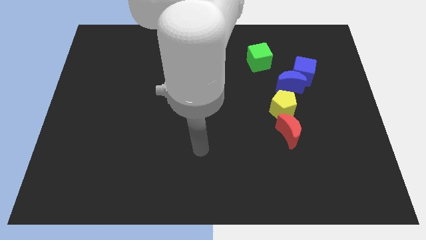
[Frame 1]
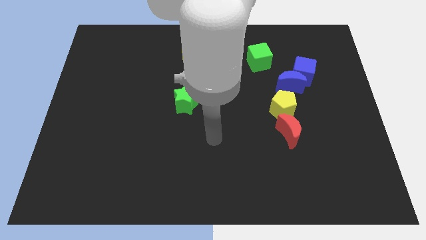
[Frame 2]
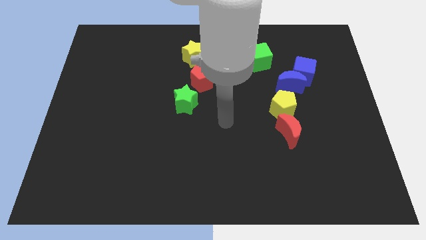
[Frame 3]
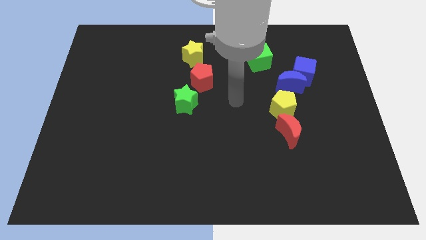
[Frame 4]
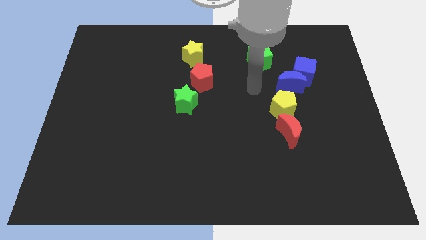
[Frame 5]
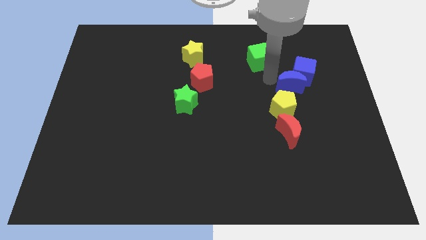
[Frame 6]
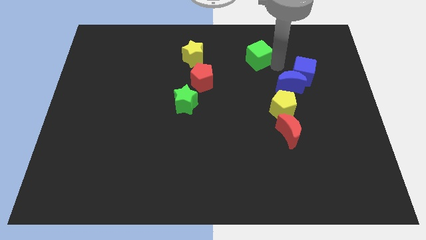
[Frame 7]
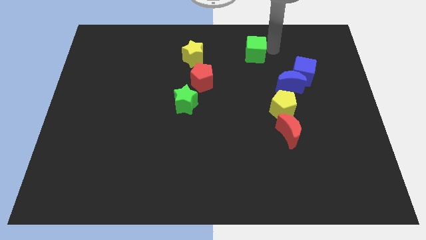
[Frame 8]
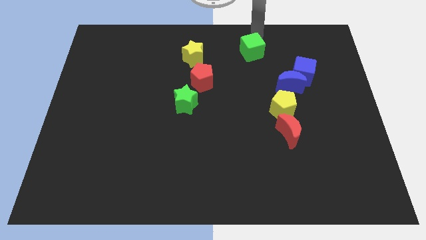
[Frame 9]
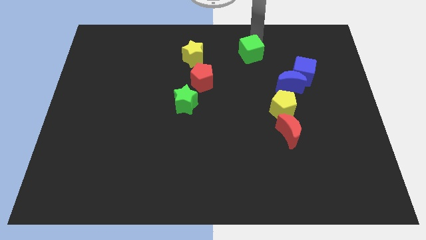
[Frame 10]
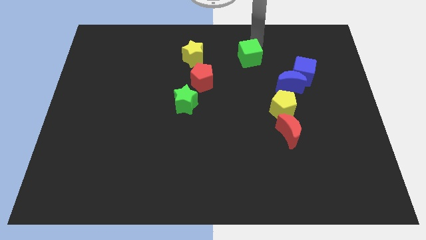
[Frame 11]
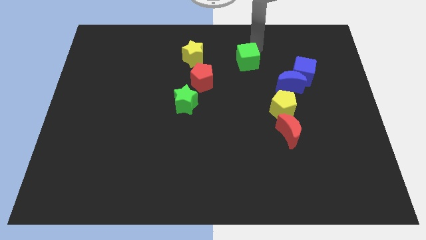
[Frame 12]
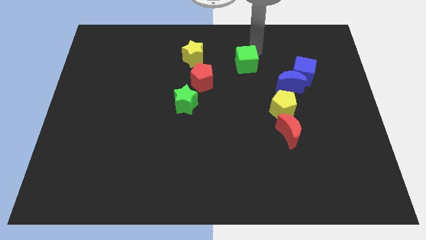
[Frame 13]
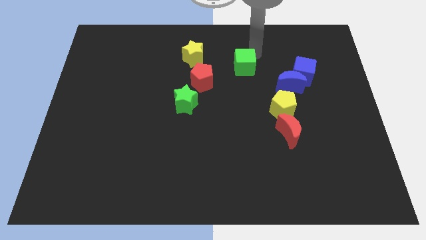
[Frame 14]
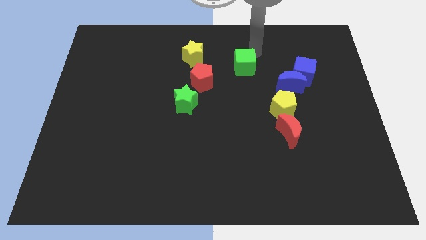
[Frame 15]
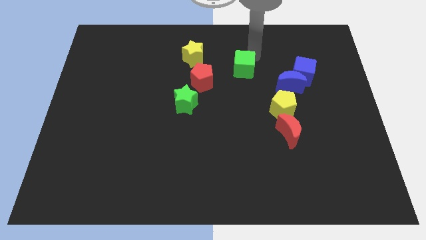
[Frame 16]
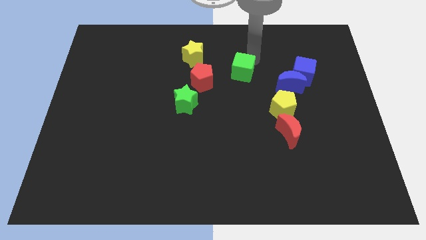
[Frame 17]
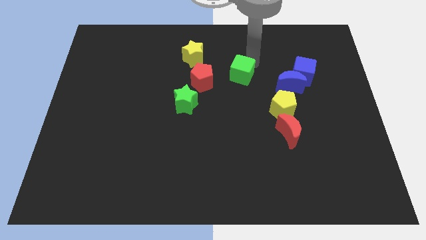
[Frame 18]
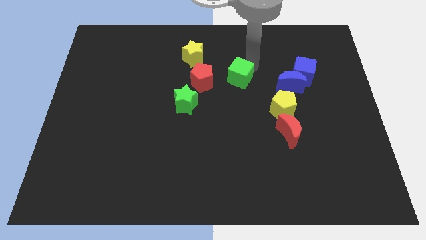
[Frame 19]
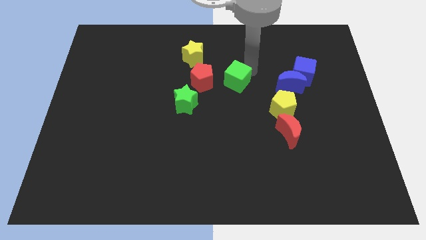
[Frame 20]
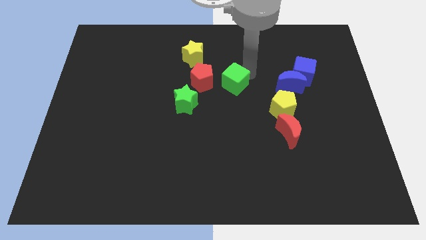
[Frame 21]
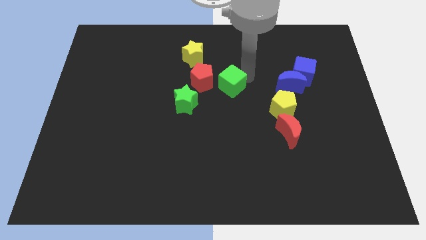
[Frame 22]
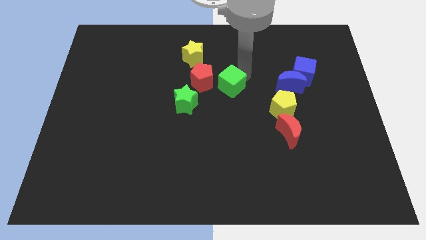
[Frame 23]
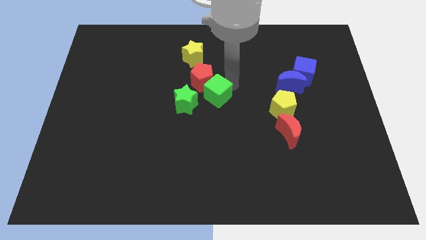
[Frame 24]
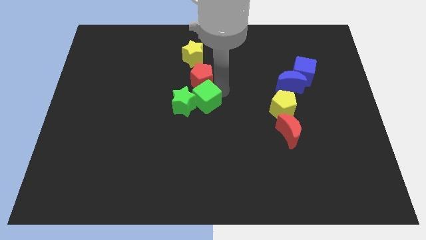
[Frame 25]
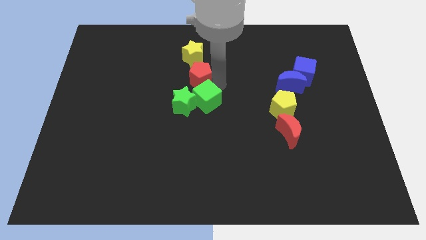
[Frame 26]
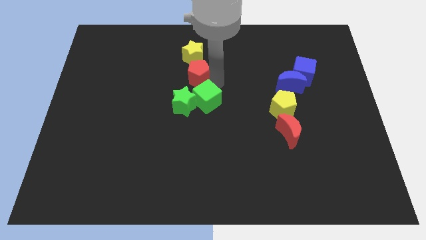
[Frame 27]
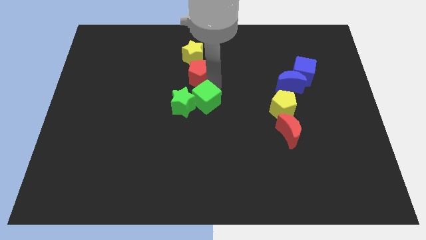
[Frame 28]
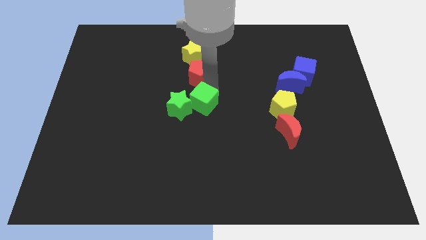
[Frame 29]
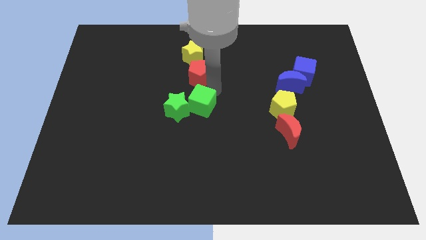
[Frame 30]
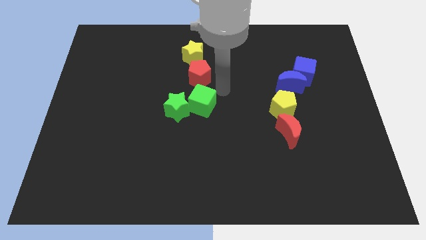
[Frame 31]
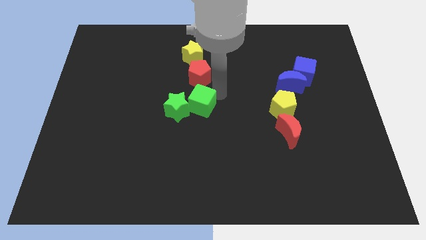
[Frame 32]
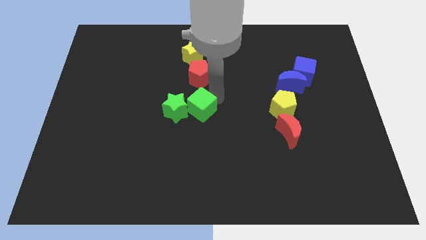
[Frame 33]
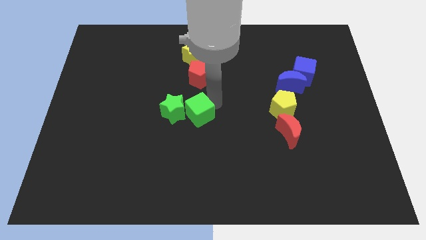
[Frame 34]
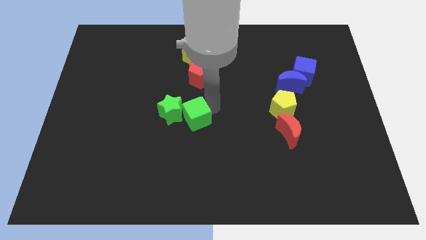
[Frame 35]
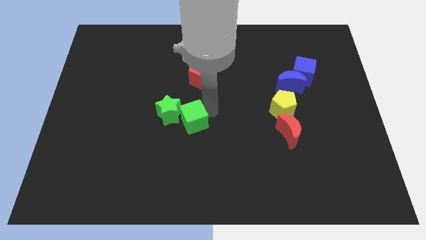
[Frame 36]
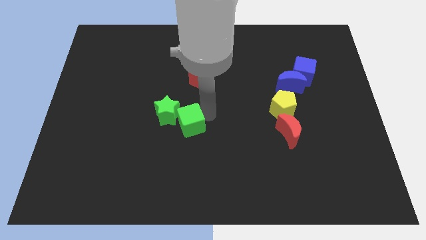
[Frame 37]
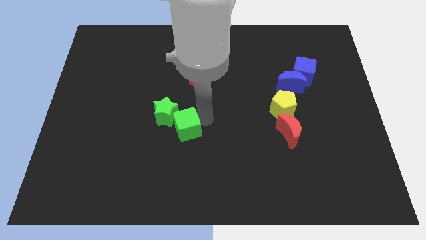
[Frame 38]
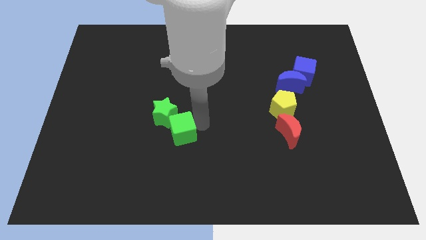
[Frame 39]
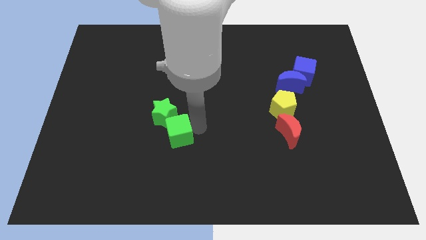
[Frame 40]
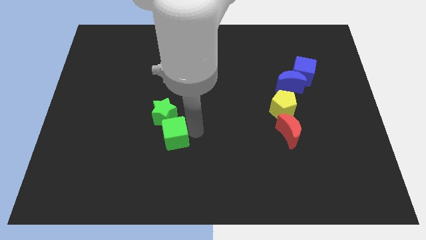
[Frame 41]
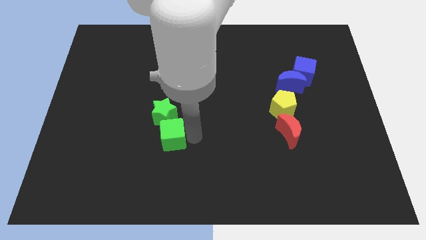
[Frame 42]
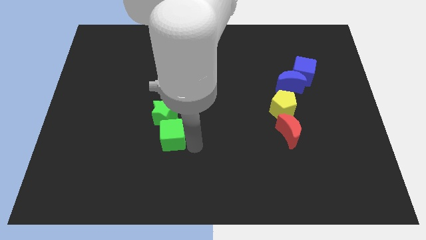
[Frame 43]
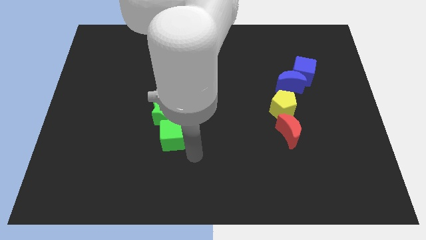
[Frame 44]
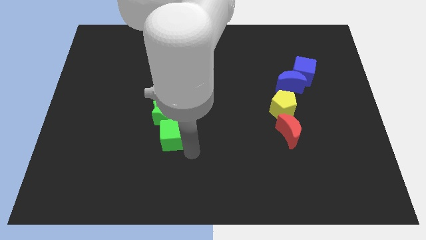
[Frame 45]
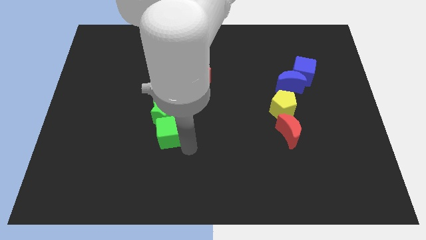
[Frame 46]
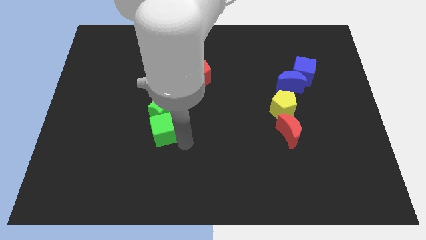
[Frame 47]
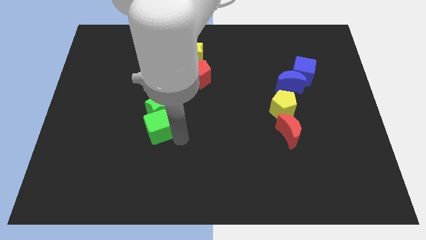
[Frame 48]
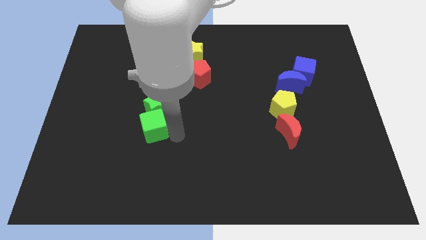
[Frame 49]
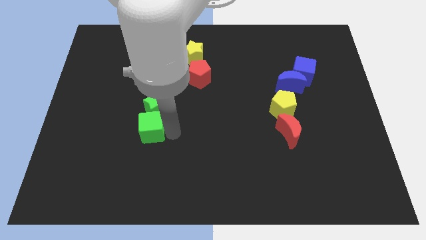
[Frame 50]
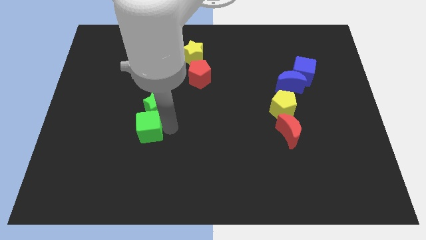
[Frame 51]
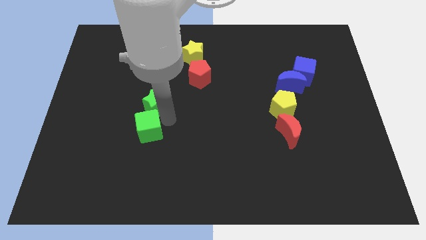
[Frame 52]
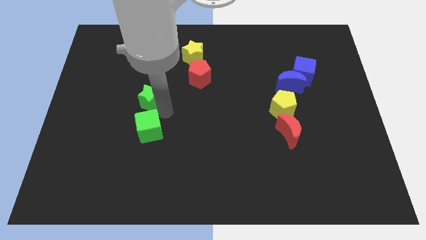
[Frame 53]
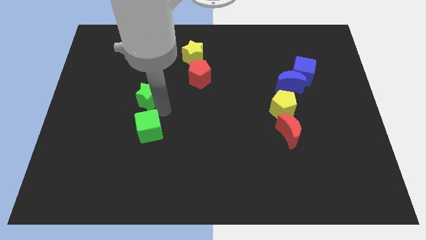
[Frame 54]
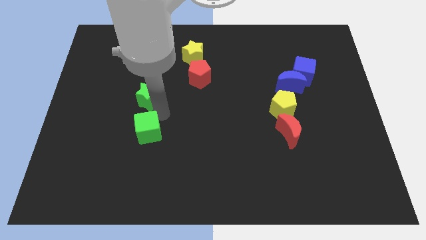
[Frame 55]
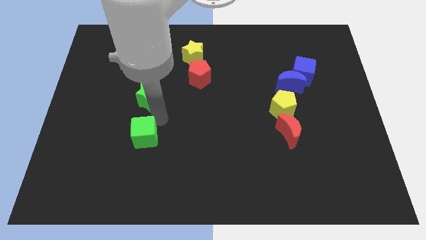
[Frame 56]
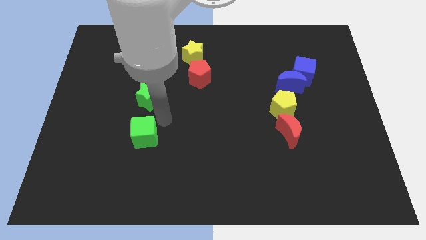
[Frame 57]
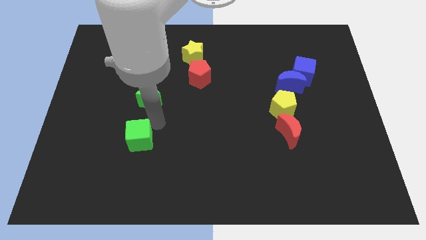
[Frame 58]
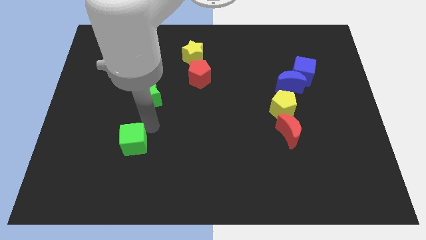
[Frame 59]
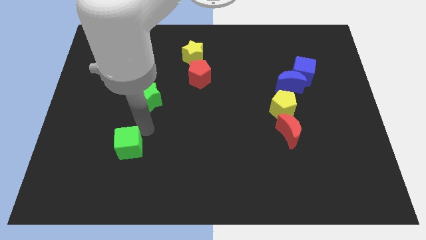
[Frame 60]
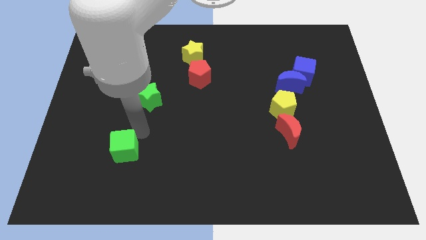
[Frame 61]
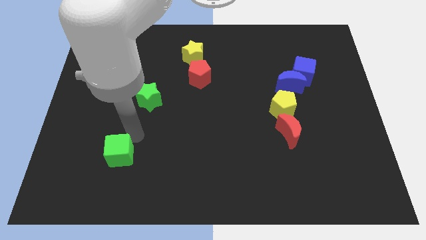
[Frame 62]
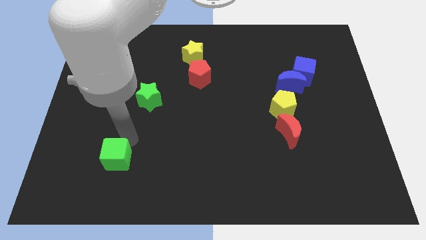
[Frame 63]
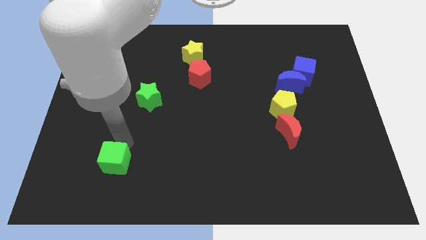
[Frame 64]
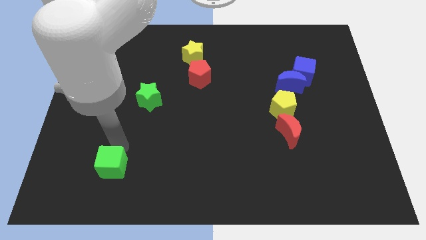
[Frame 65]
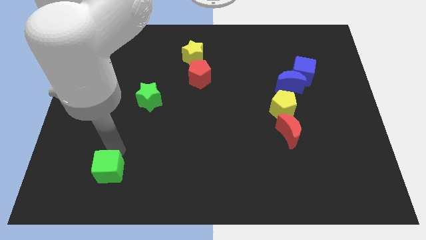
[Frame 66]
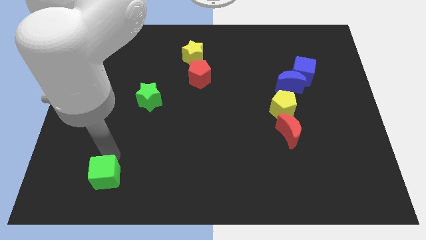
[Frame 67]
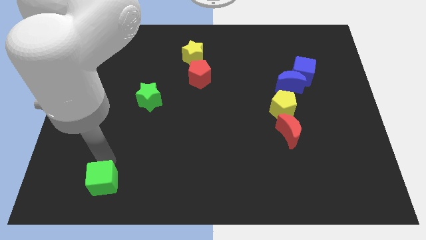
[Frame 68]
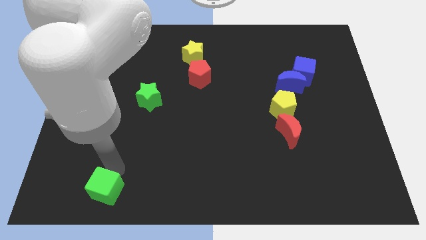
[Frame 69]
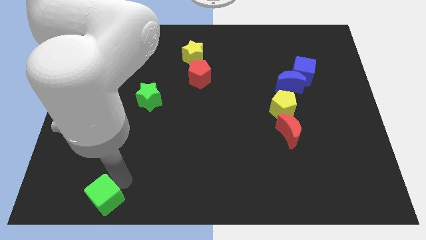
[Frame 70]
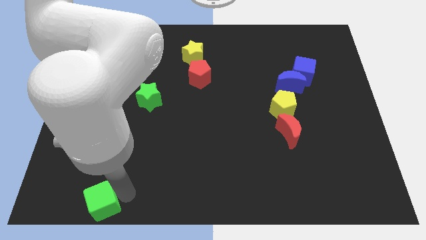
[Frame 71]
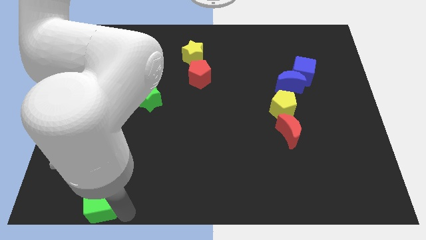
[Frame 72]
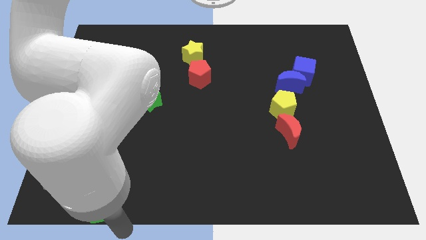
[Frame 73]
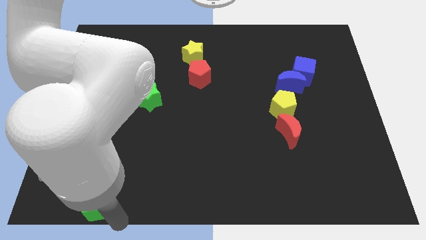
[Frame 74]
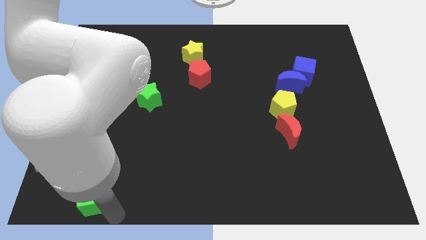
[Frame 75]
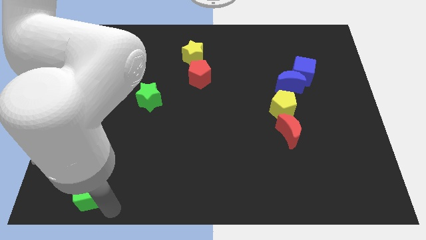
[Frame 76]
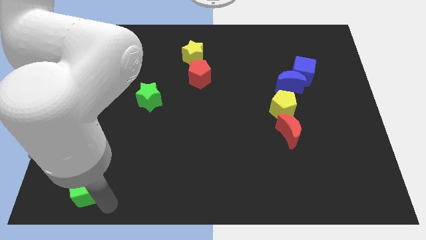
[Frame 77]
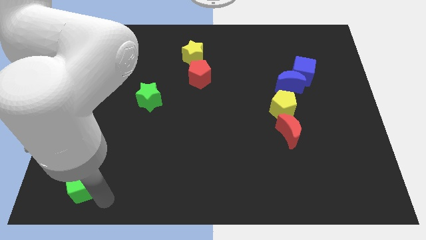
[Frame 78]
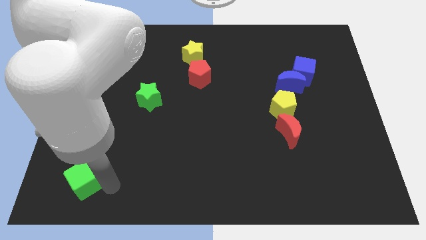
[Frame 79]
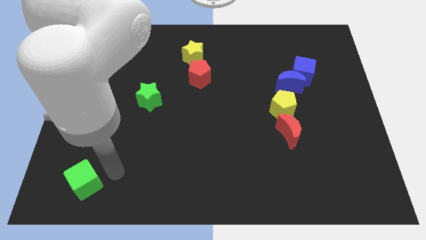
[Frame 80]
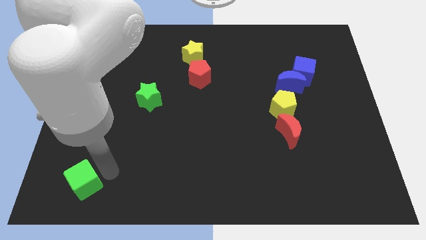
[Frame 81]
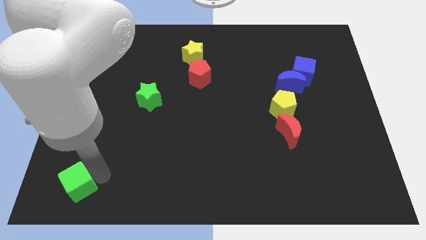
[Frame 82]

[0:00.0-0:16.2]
move the green cube to the bottom left corner
